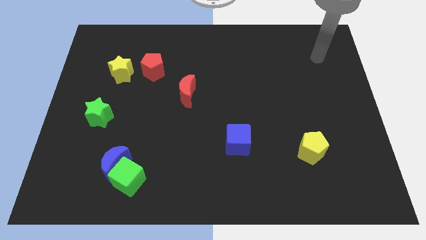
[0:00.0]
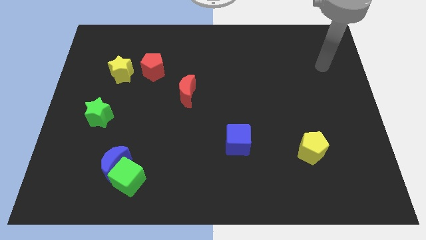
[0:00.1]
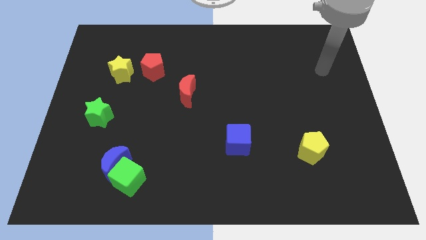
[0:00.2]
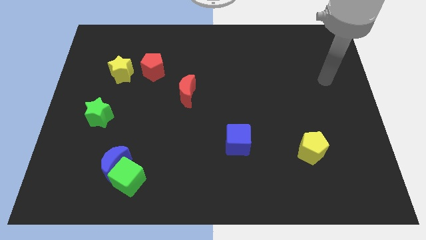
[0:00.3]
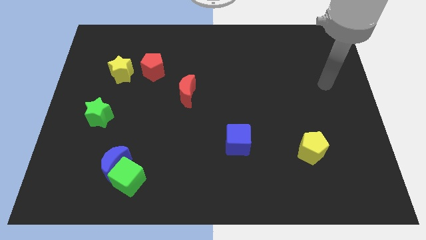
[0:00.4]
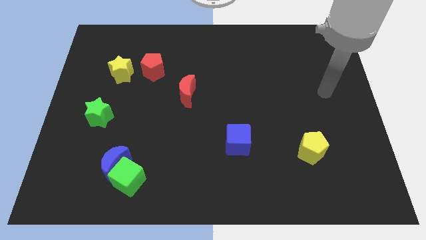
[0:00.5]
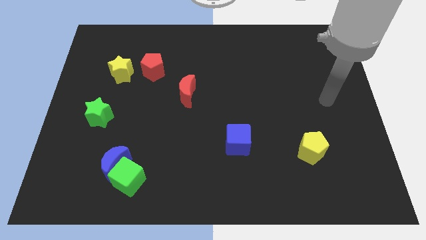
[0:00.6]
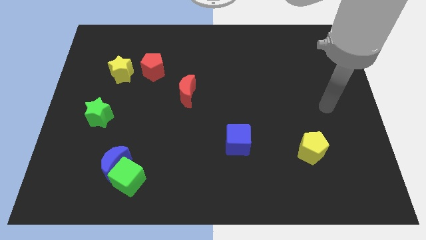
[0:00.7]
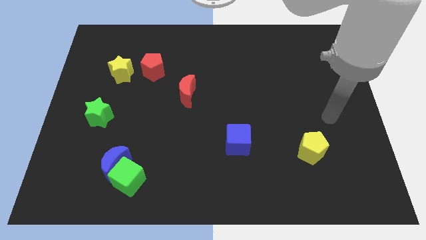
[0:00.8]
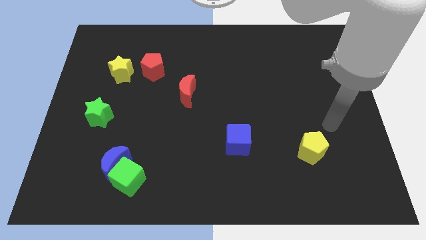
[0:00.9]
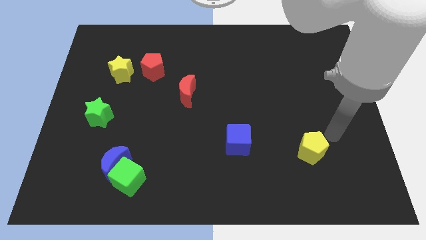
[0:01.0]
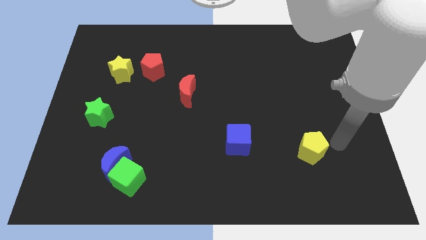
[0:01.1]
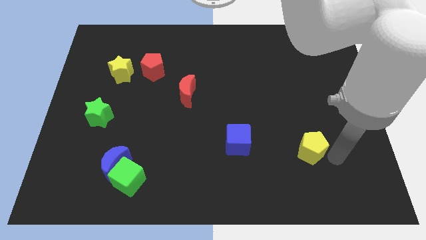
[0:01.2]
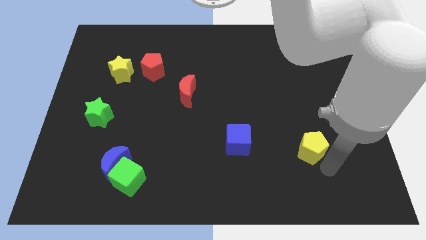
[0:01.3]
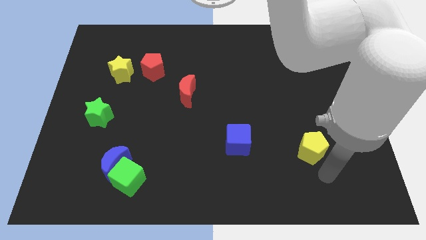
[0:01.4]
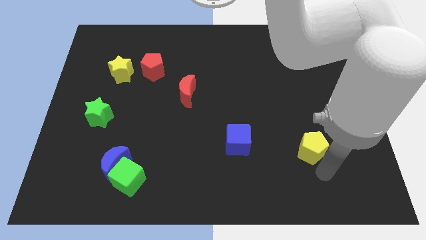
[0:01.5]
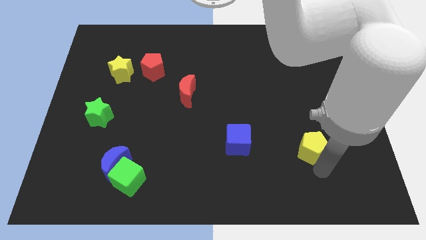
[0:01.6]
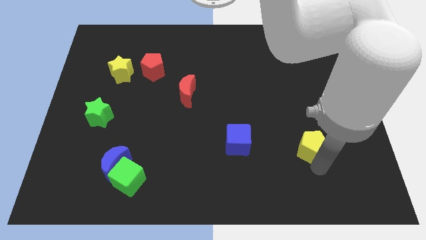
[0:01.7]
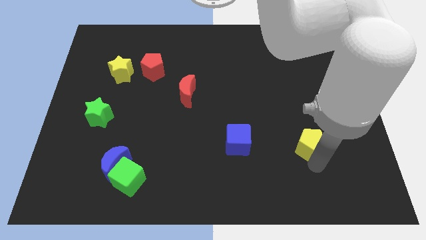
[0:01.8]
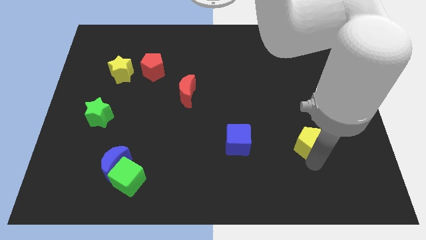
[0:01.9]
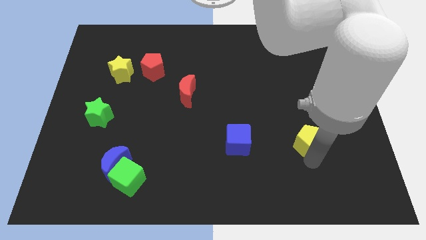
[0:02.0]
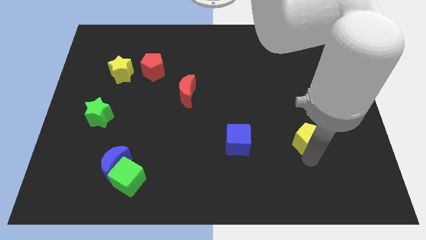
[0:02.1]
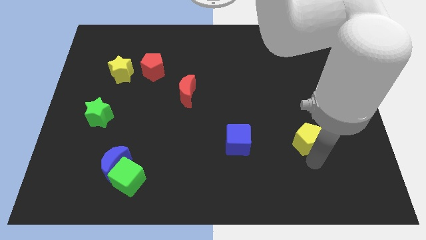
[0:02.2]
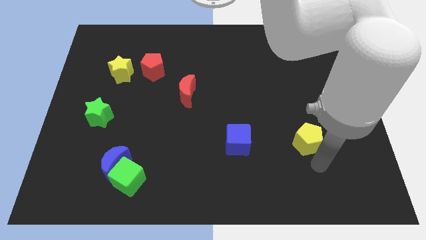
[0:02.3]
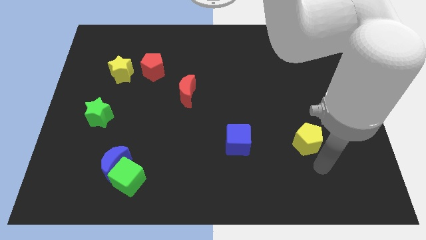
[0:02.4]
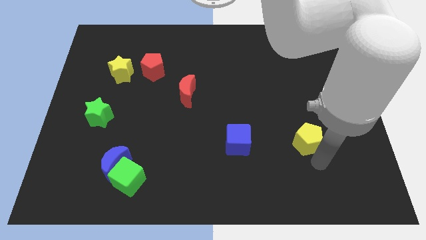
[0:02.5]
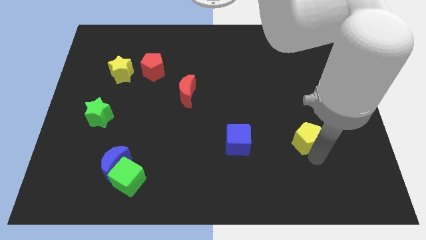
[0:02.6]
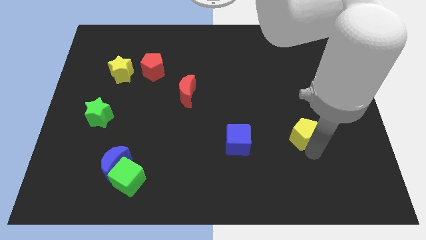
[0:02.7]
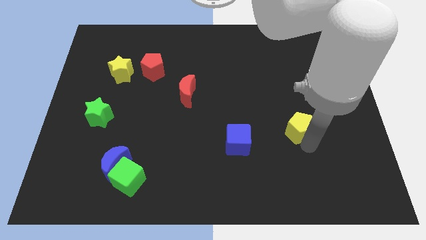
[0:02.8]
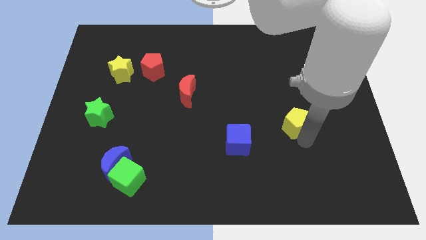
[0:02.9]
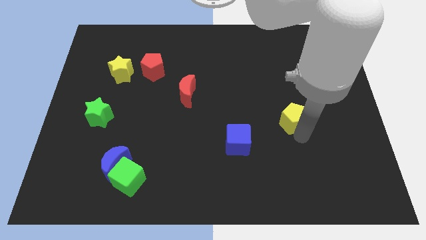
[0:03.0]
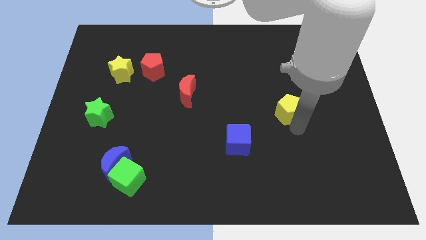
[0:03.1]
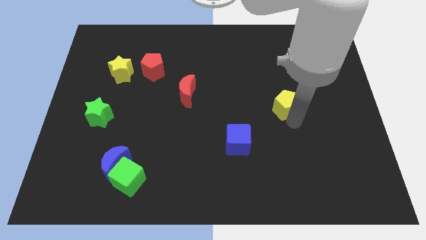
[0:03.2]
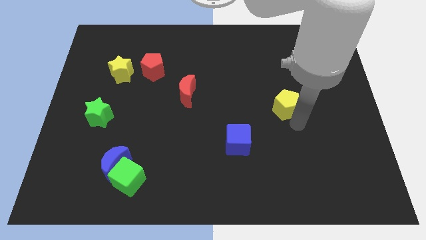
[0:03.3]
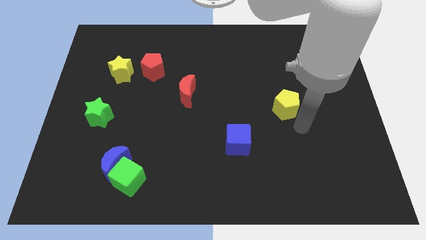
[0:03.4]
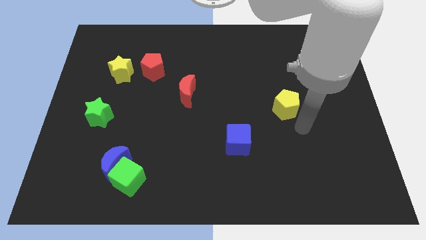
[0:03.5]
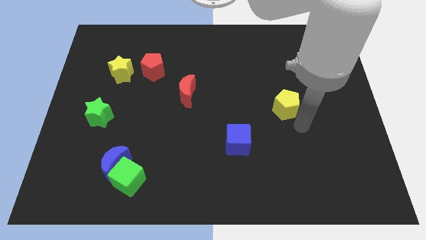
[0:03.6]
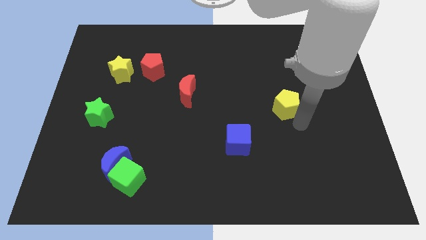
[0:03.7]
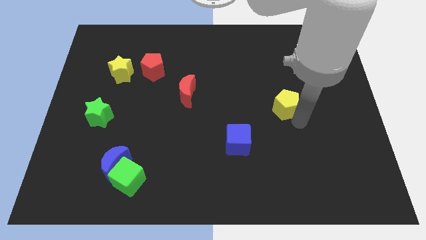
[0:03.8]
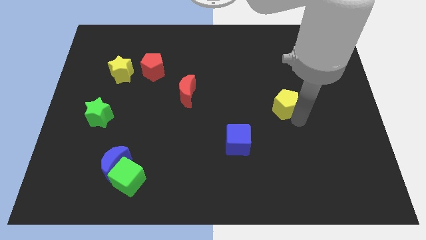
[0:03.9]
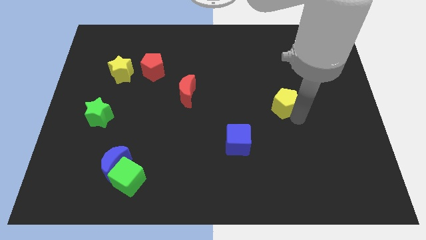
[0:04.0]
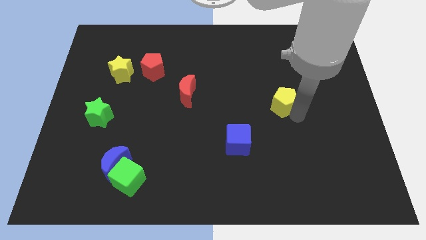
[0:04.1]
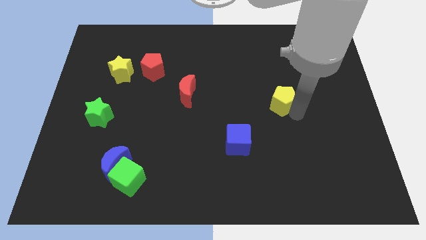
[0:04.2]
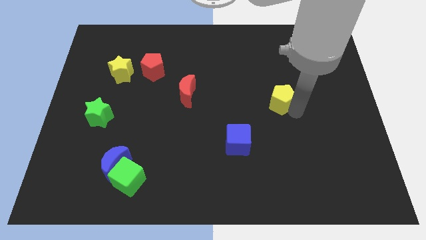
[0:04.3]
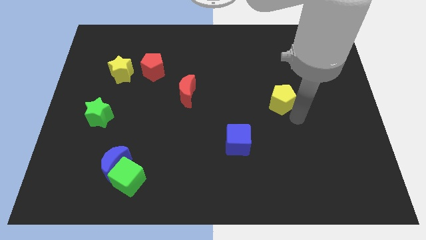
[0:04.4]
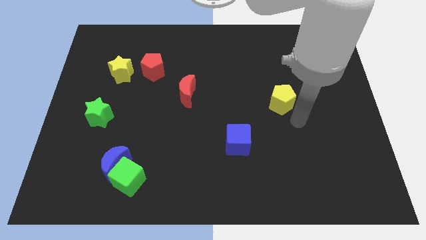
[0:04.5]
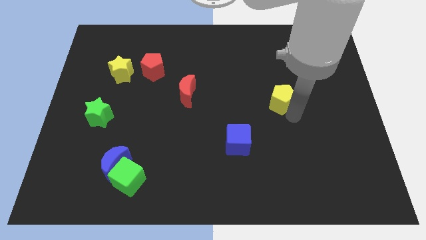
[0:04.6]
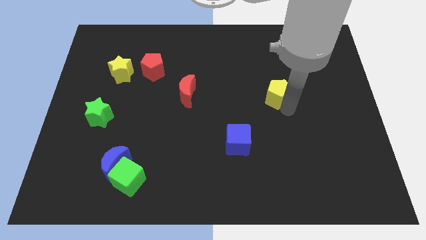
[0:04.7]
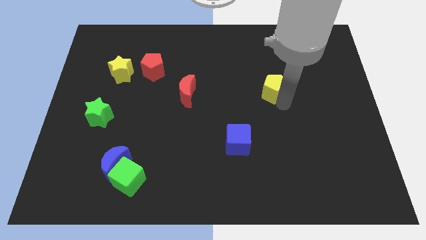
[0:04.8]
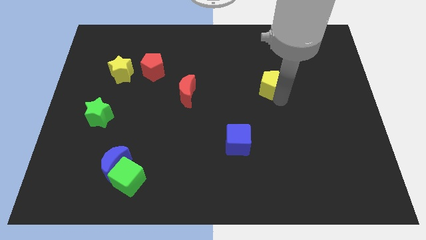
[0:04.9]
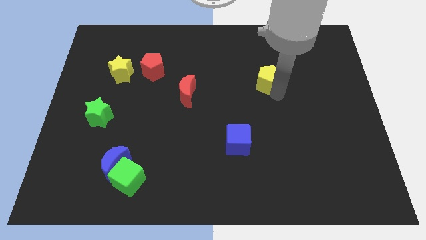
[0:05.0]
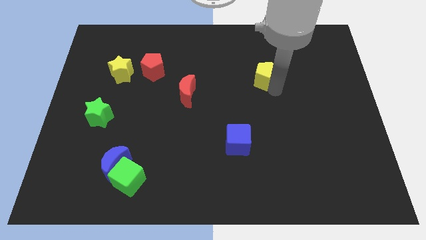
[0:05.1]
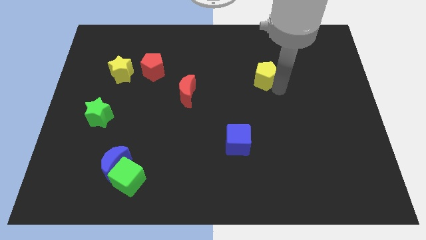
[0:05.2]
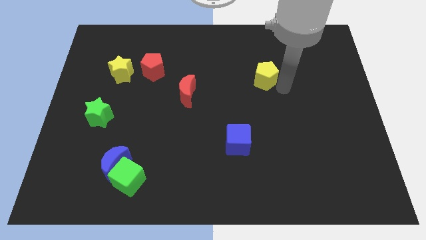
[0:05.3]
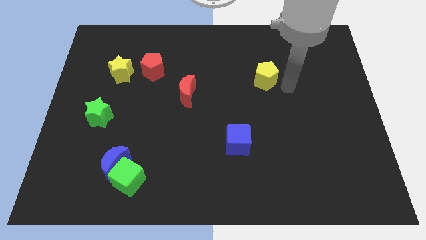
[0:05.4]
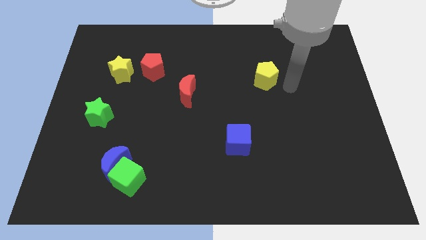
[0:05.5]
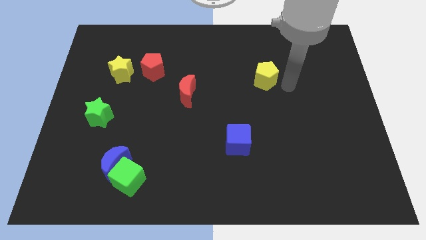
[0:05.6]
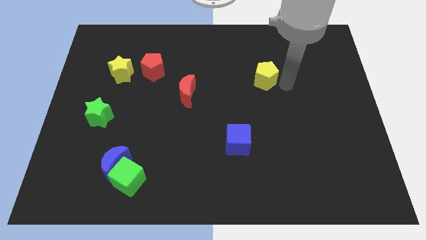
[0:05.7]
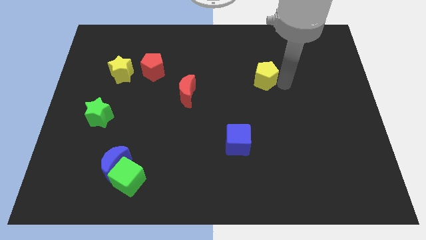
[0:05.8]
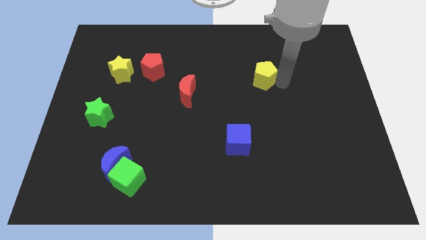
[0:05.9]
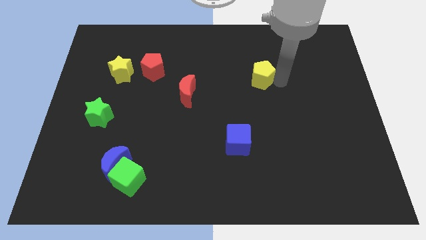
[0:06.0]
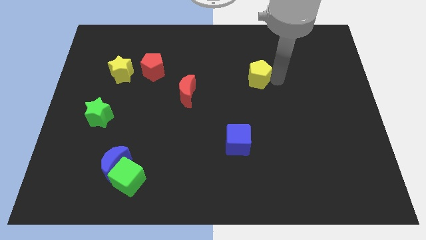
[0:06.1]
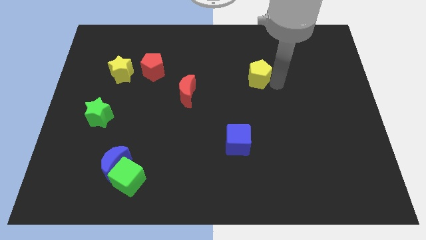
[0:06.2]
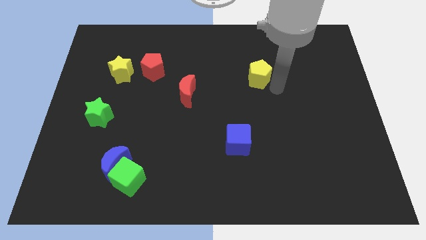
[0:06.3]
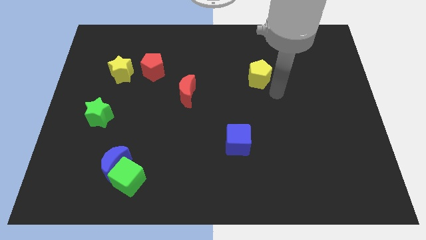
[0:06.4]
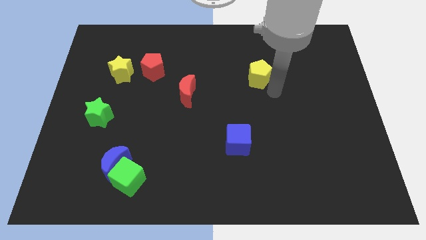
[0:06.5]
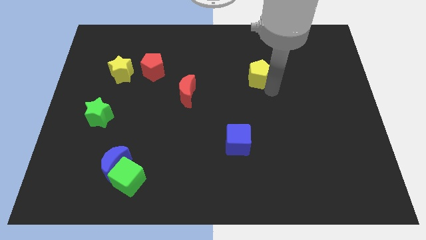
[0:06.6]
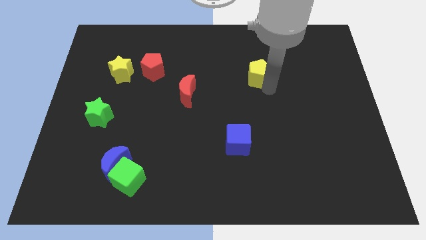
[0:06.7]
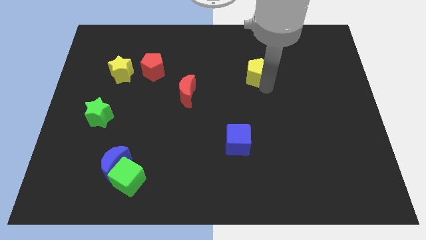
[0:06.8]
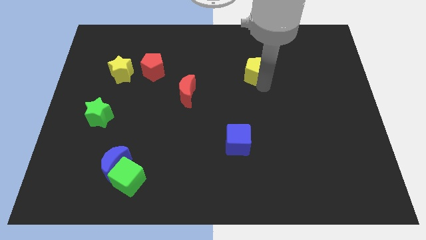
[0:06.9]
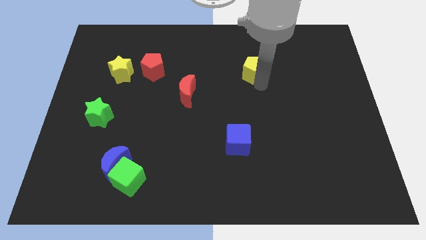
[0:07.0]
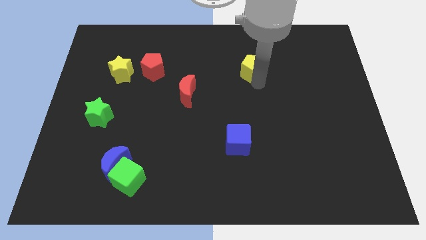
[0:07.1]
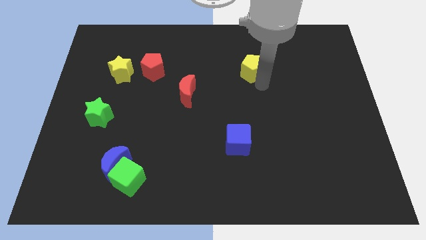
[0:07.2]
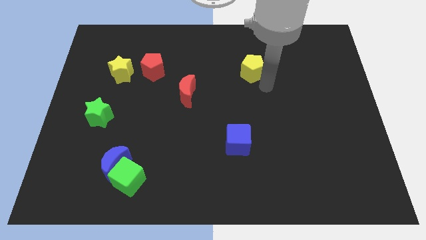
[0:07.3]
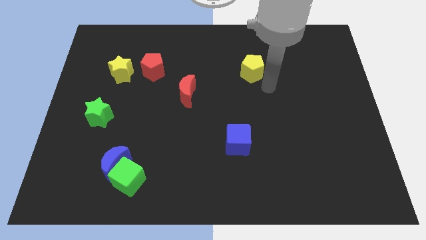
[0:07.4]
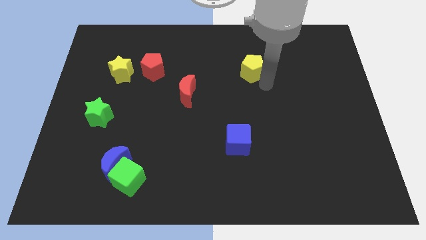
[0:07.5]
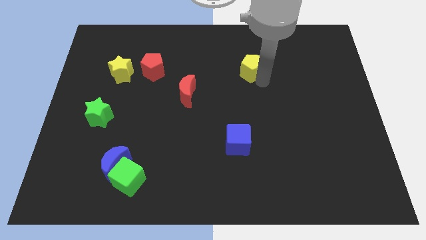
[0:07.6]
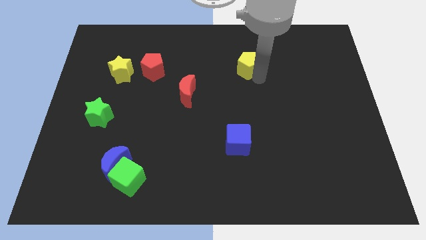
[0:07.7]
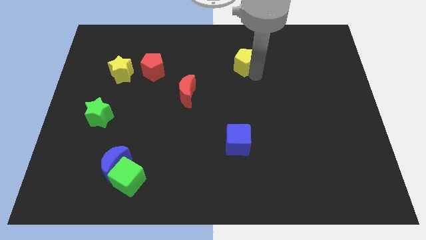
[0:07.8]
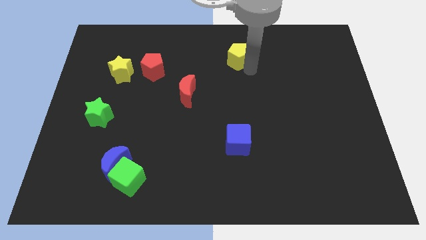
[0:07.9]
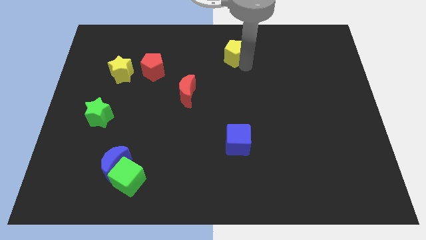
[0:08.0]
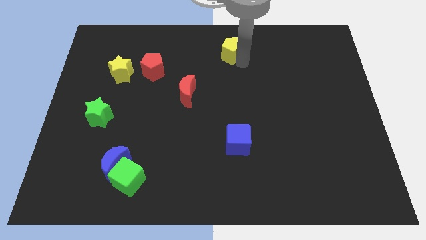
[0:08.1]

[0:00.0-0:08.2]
push the yellow pentagon to the towards your base
